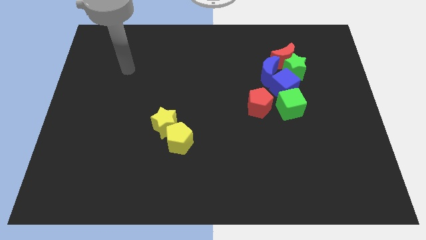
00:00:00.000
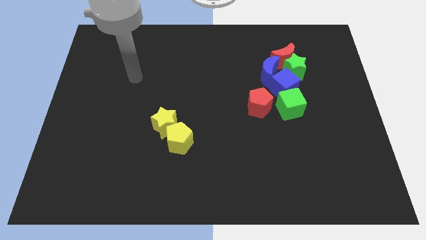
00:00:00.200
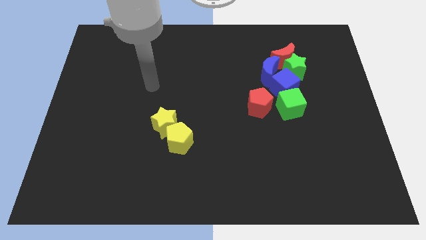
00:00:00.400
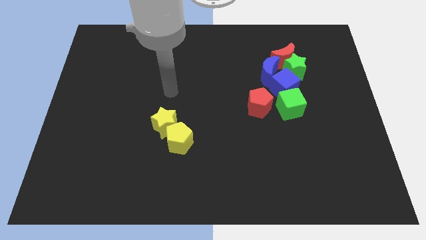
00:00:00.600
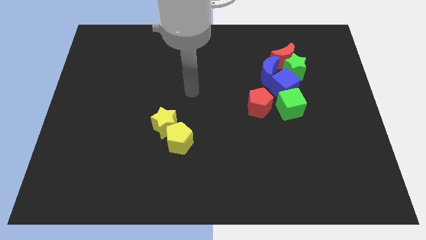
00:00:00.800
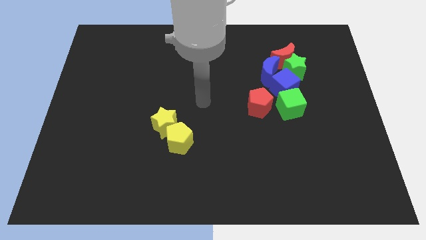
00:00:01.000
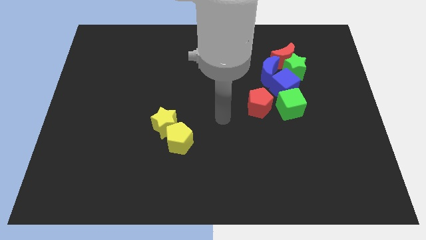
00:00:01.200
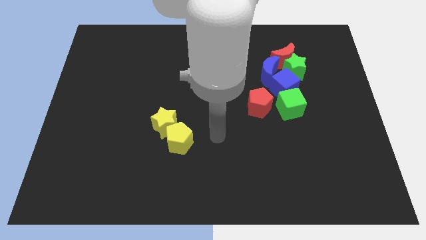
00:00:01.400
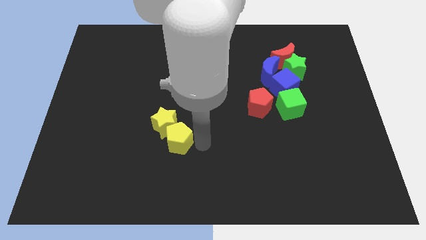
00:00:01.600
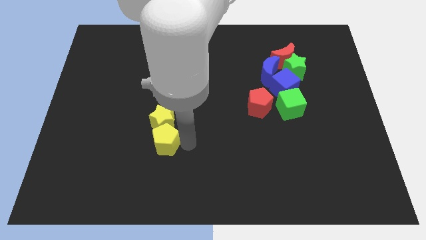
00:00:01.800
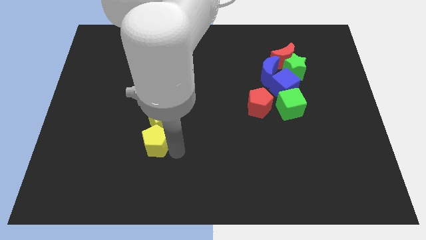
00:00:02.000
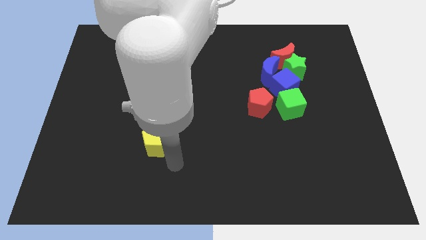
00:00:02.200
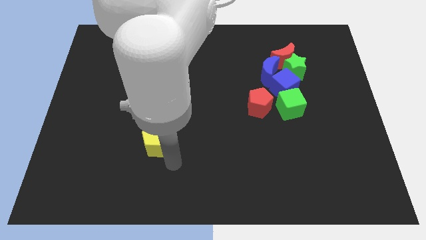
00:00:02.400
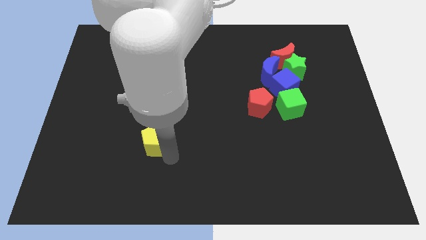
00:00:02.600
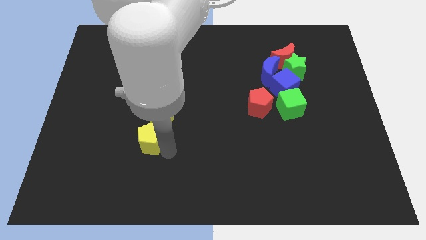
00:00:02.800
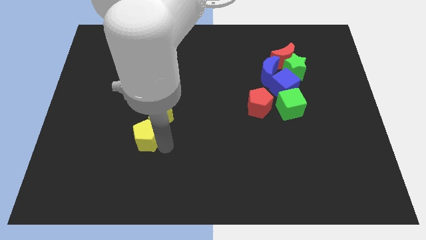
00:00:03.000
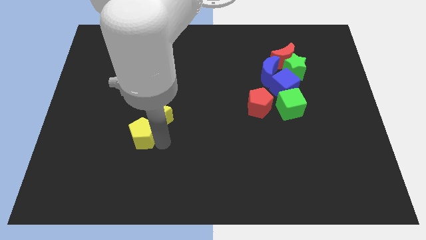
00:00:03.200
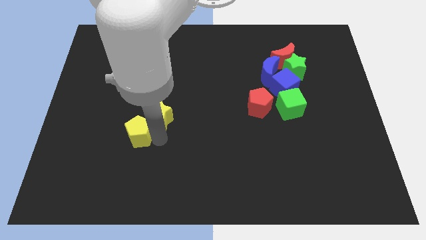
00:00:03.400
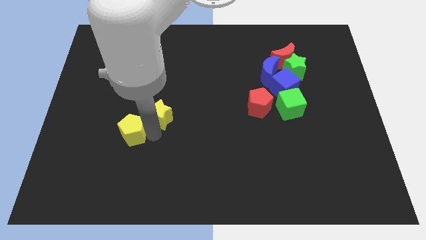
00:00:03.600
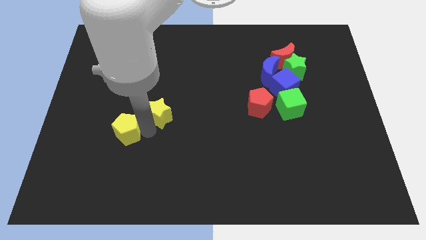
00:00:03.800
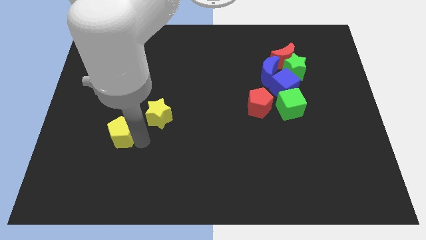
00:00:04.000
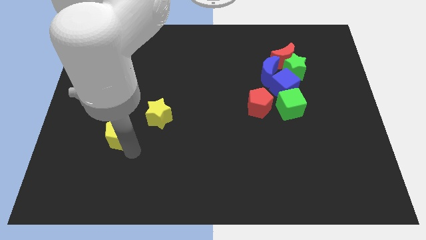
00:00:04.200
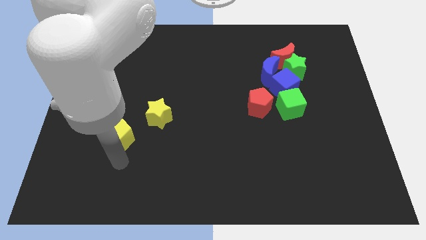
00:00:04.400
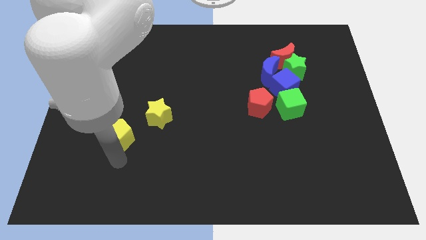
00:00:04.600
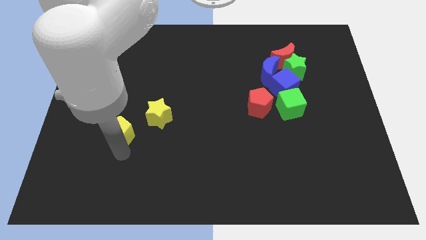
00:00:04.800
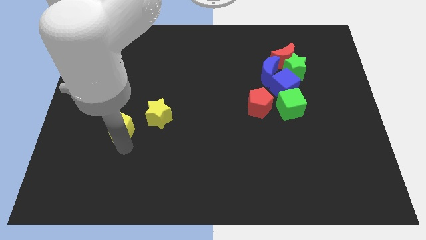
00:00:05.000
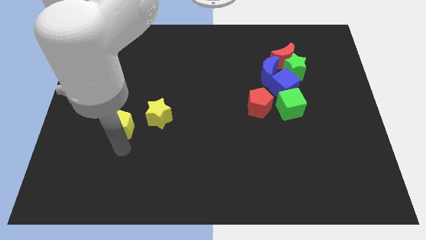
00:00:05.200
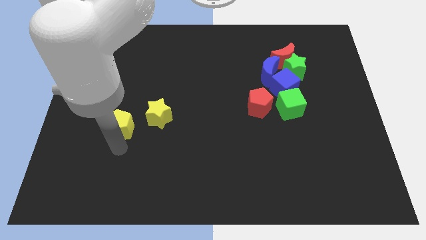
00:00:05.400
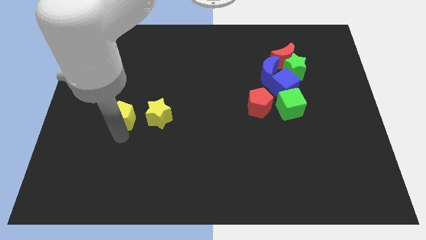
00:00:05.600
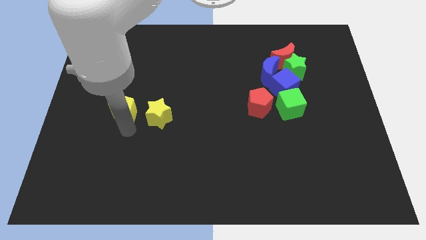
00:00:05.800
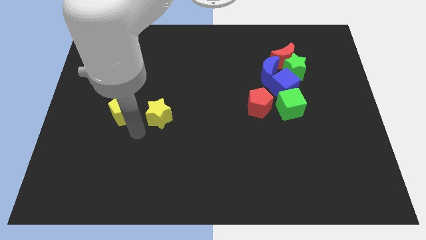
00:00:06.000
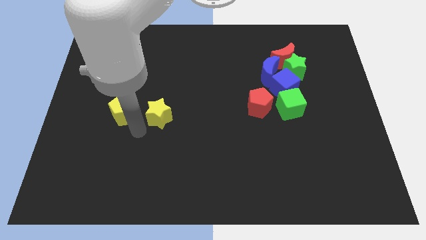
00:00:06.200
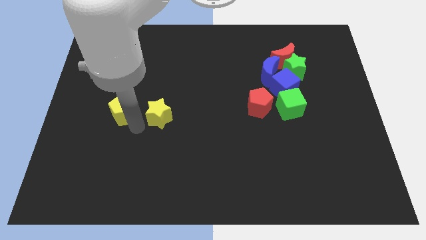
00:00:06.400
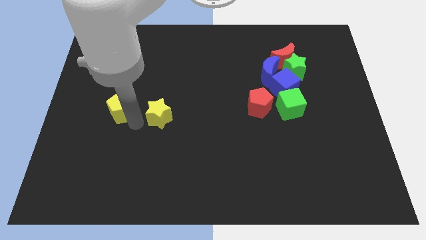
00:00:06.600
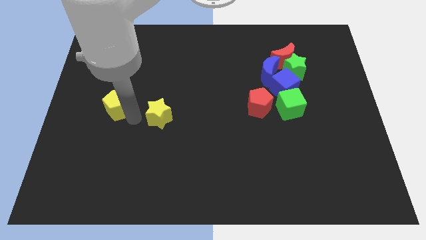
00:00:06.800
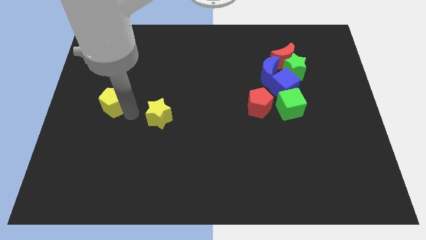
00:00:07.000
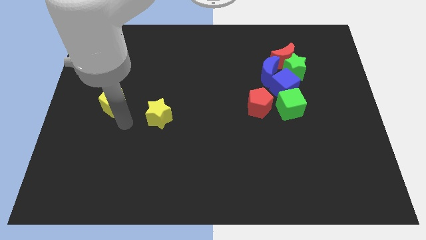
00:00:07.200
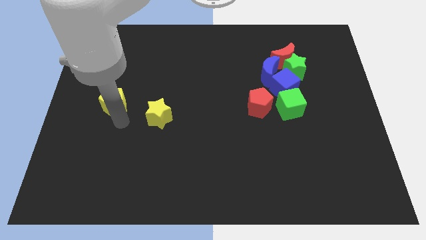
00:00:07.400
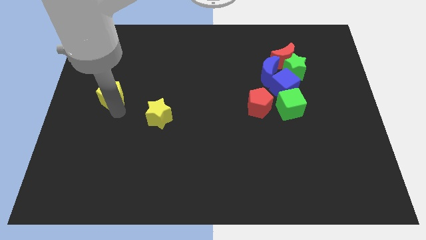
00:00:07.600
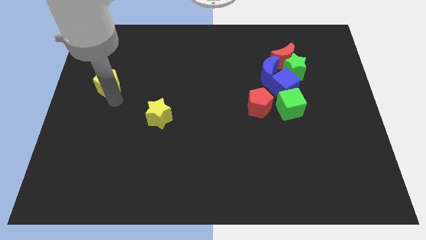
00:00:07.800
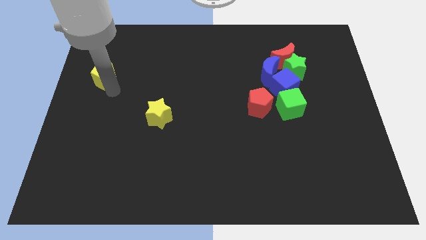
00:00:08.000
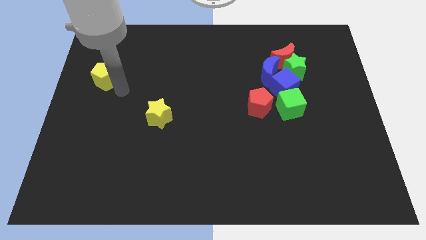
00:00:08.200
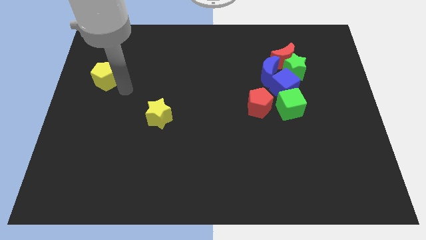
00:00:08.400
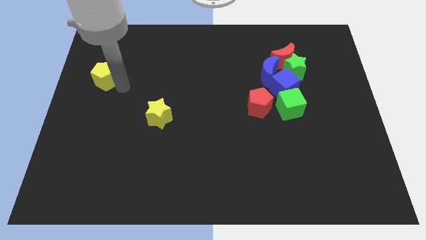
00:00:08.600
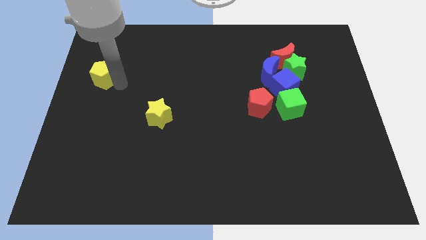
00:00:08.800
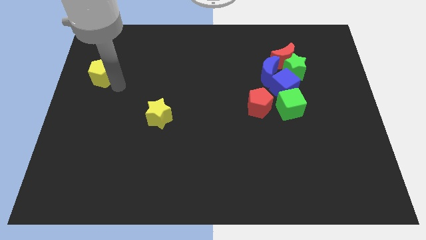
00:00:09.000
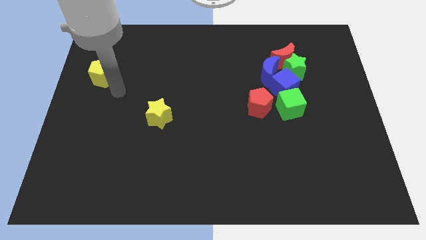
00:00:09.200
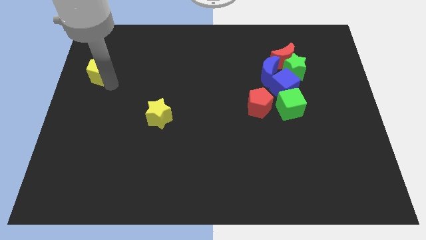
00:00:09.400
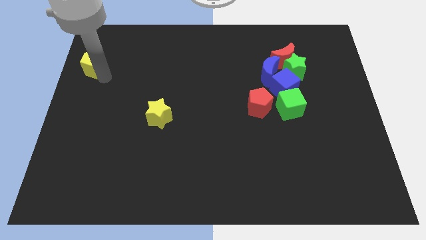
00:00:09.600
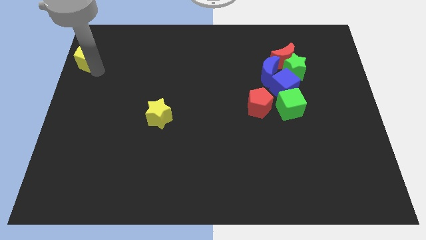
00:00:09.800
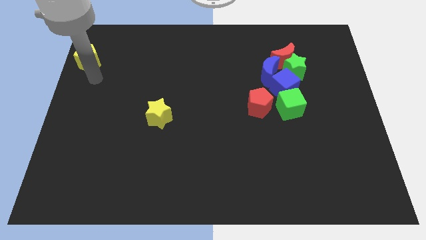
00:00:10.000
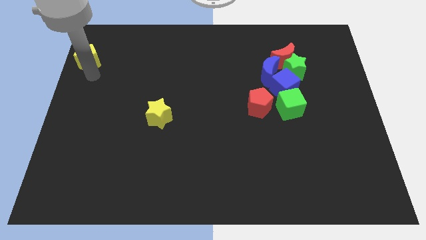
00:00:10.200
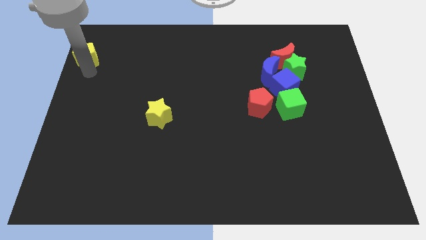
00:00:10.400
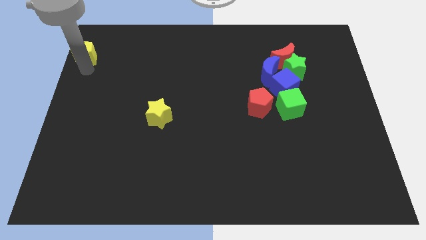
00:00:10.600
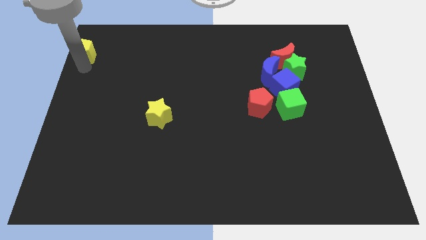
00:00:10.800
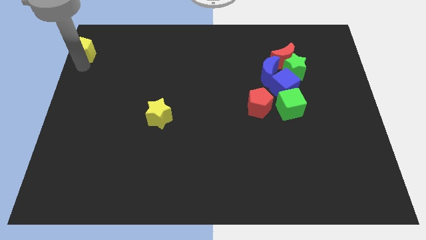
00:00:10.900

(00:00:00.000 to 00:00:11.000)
put the yellow pentagon to the top left corner

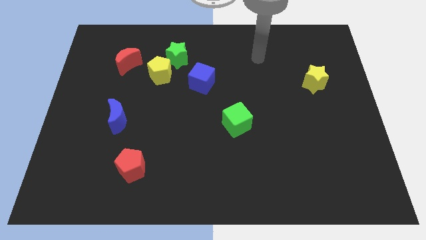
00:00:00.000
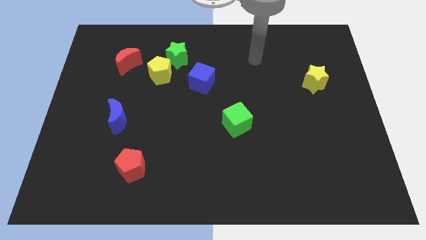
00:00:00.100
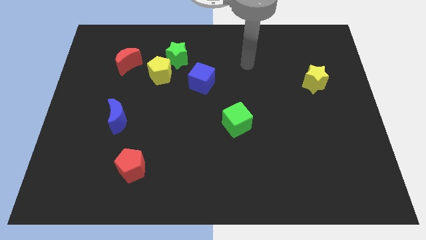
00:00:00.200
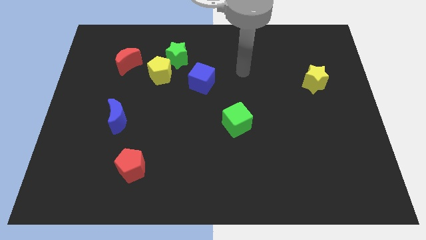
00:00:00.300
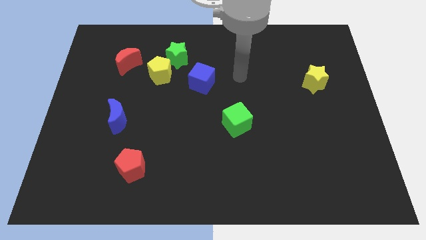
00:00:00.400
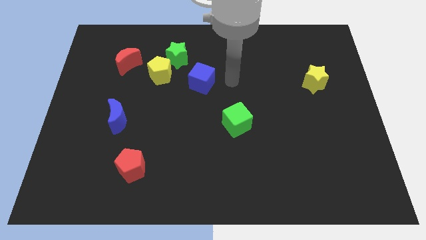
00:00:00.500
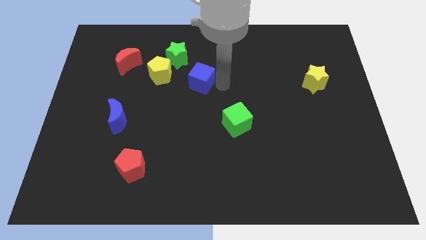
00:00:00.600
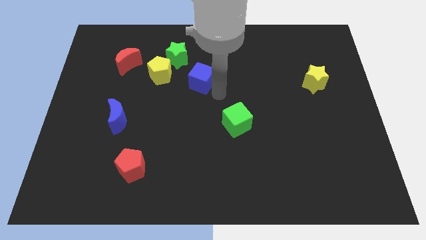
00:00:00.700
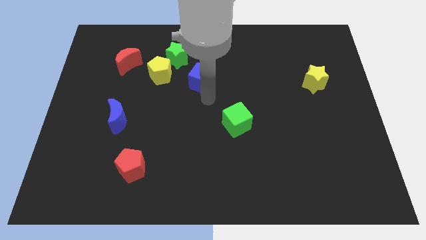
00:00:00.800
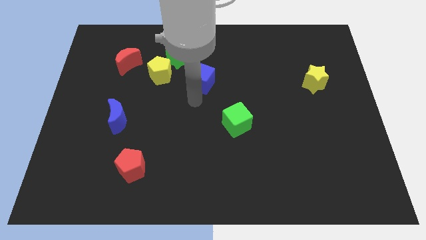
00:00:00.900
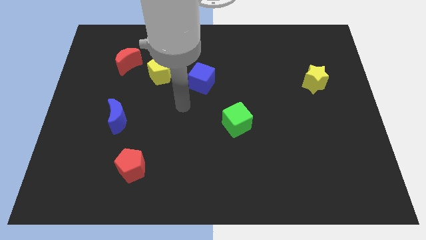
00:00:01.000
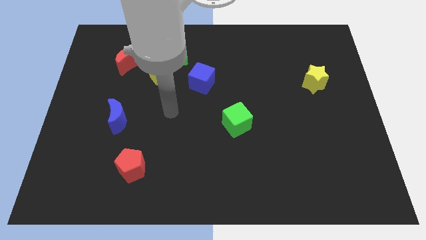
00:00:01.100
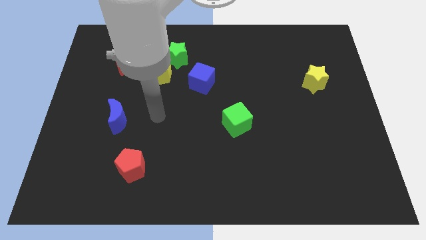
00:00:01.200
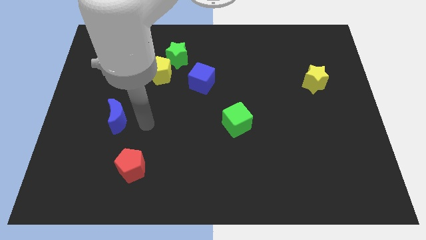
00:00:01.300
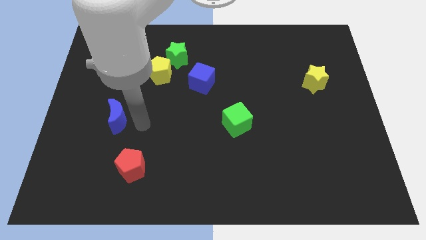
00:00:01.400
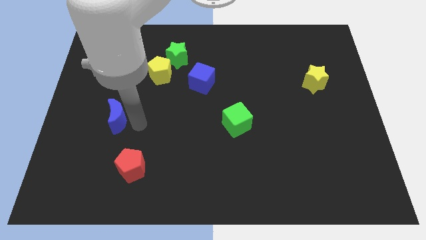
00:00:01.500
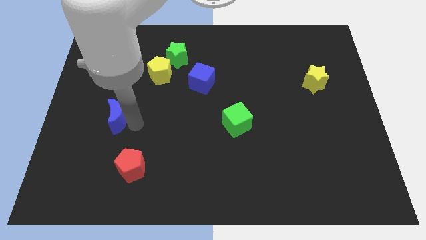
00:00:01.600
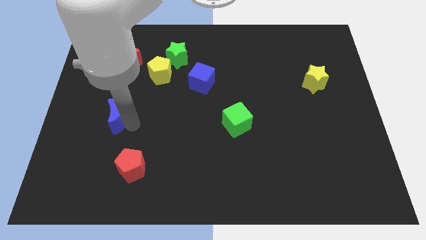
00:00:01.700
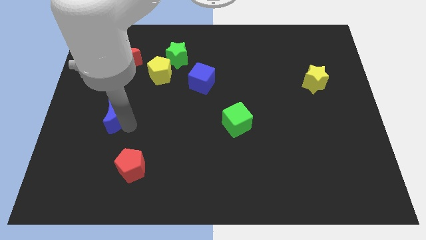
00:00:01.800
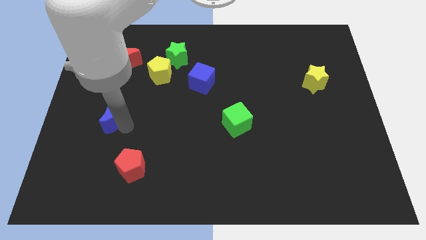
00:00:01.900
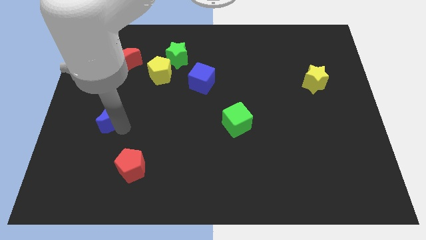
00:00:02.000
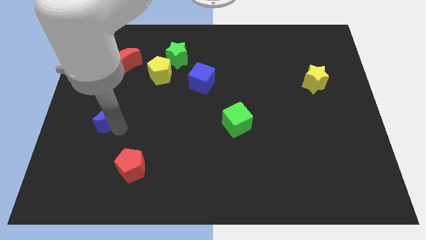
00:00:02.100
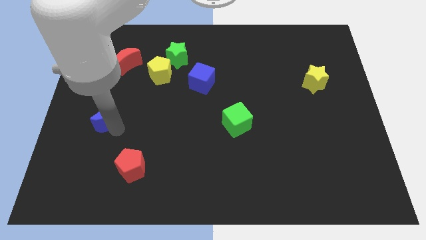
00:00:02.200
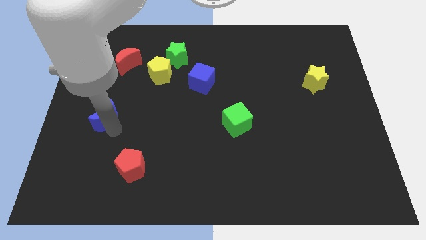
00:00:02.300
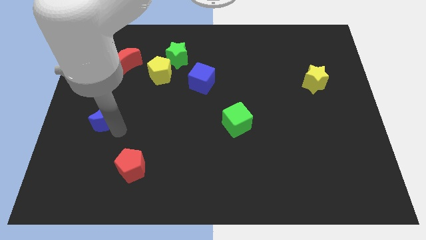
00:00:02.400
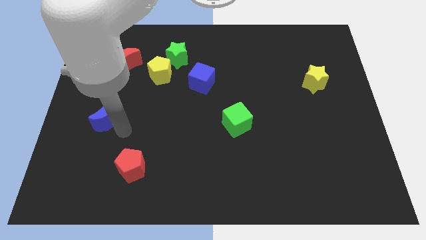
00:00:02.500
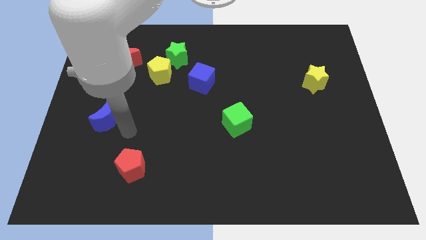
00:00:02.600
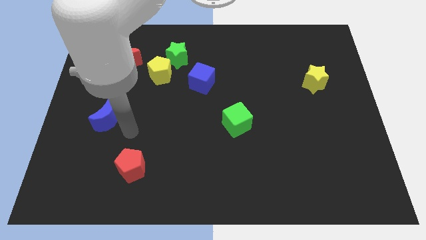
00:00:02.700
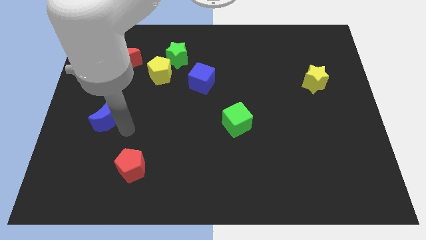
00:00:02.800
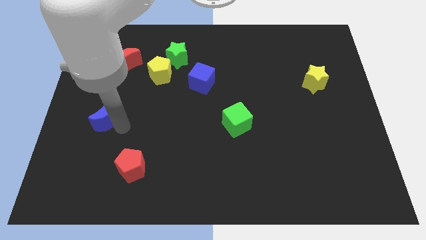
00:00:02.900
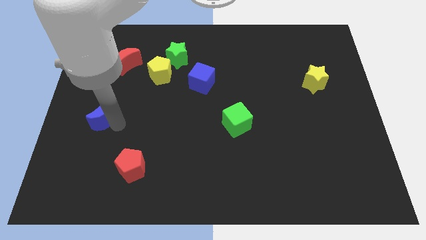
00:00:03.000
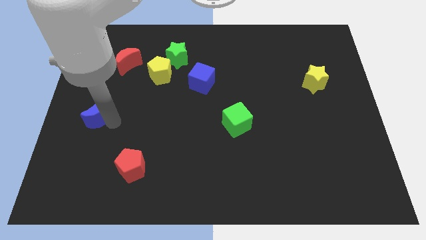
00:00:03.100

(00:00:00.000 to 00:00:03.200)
push the blue moon to the left side
